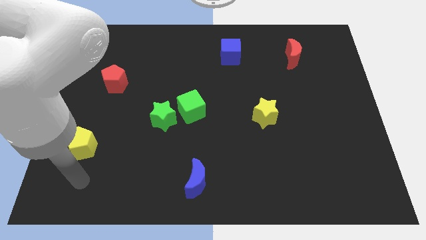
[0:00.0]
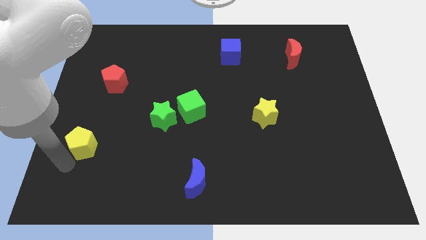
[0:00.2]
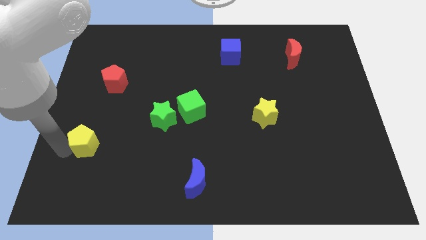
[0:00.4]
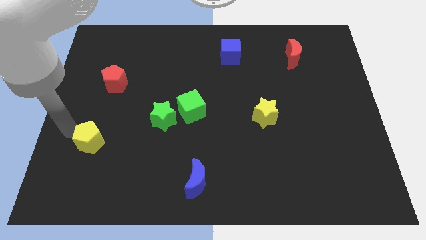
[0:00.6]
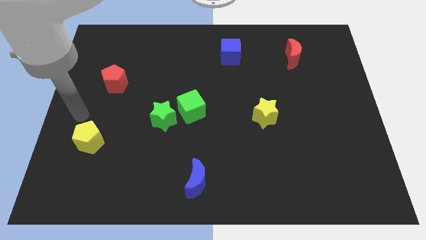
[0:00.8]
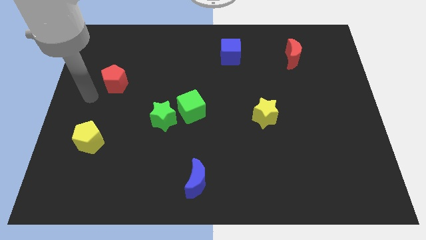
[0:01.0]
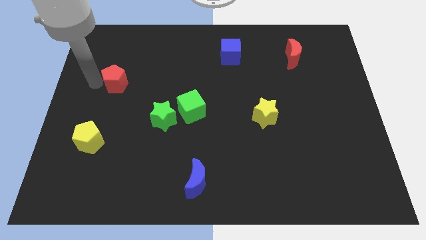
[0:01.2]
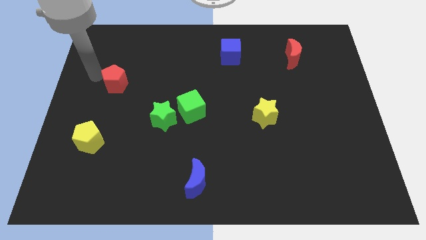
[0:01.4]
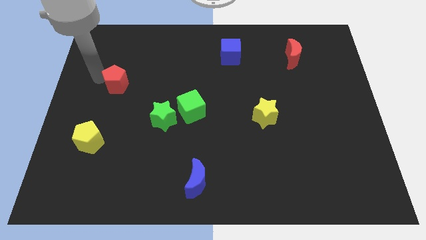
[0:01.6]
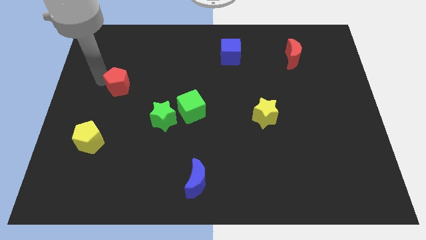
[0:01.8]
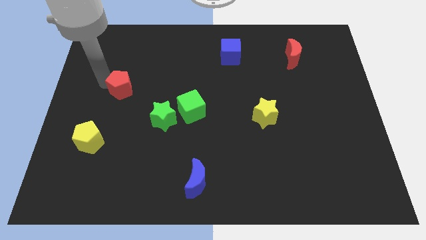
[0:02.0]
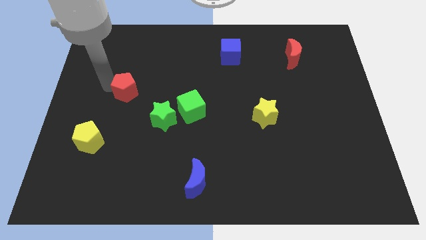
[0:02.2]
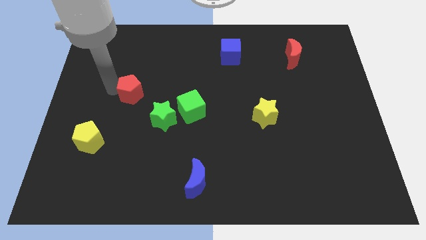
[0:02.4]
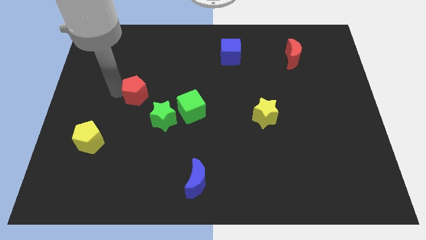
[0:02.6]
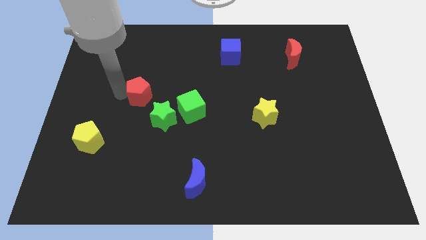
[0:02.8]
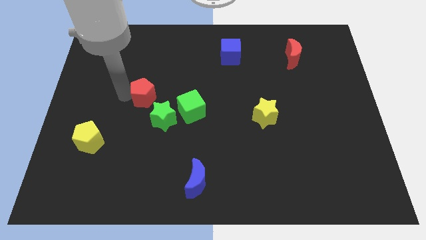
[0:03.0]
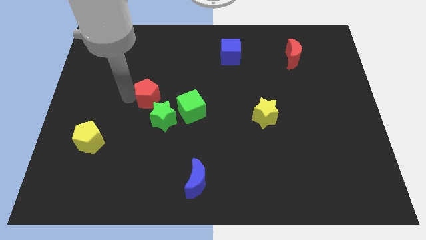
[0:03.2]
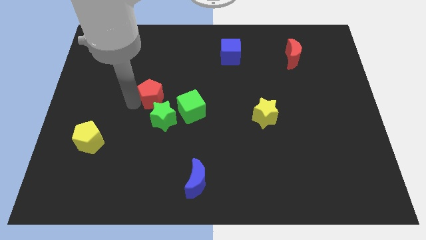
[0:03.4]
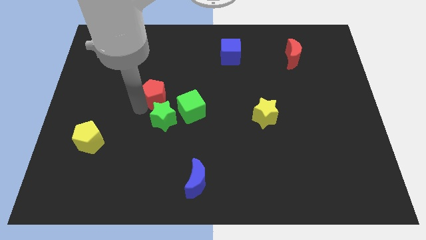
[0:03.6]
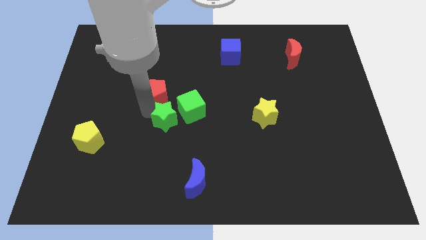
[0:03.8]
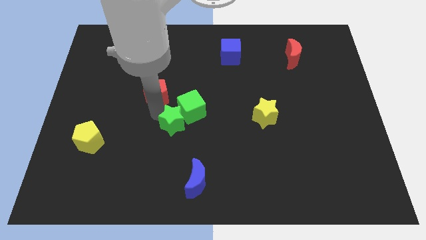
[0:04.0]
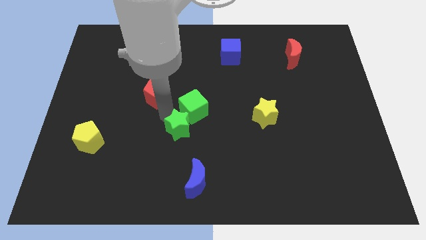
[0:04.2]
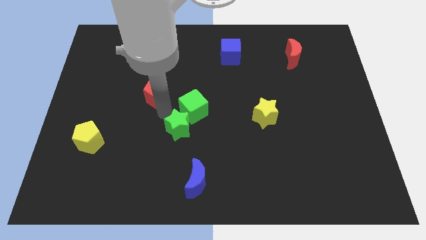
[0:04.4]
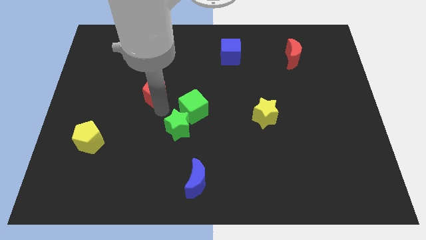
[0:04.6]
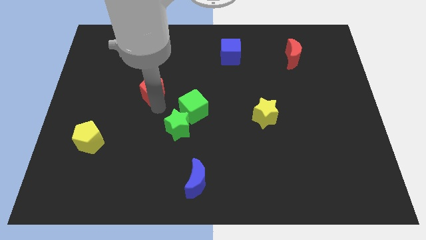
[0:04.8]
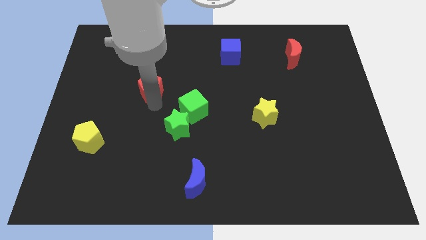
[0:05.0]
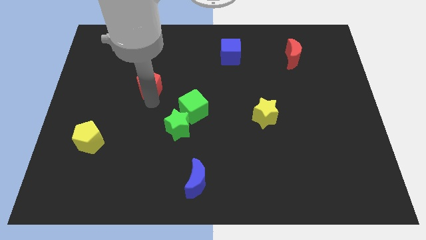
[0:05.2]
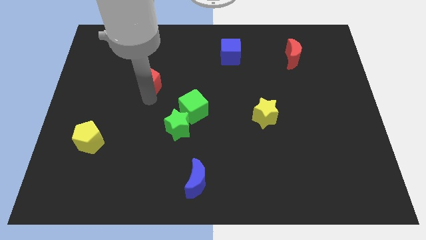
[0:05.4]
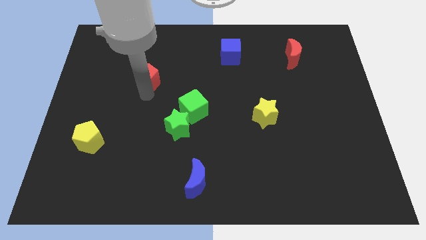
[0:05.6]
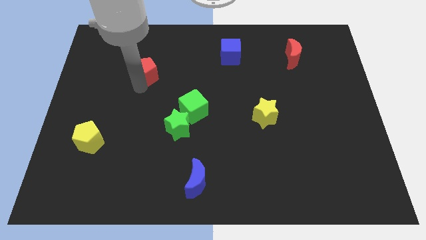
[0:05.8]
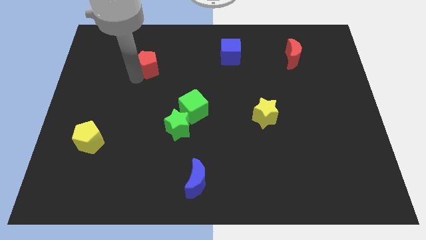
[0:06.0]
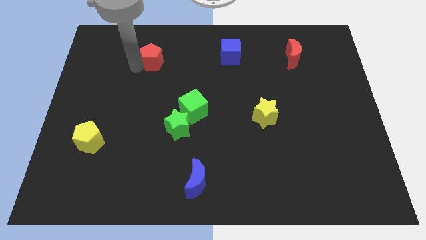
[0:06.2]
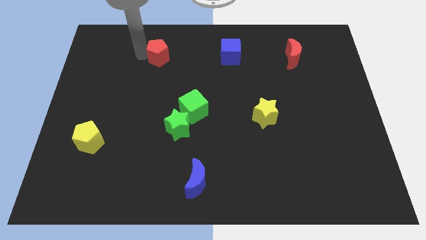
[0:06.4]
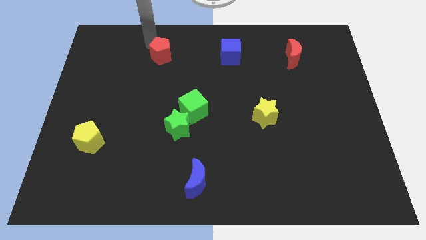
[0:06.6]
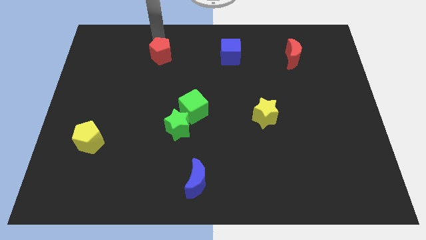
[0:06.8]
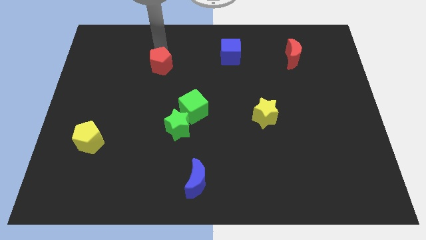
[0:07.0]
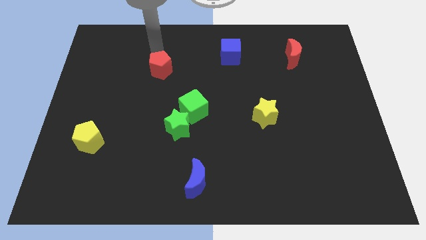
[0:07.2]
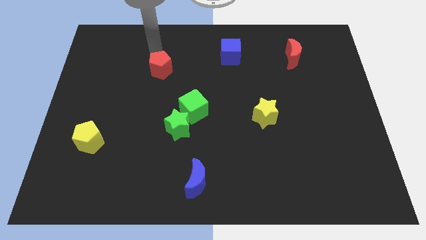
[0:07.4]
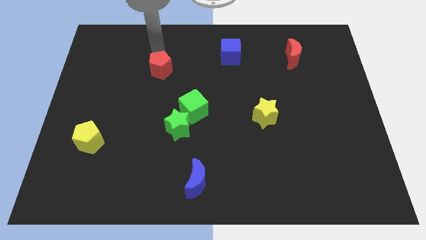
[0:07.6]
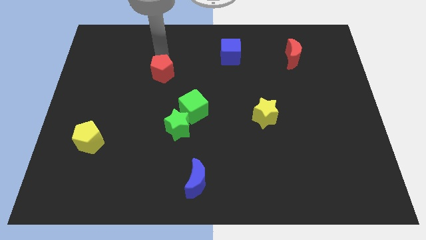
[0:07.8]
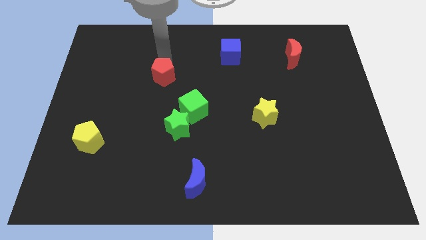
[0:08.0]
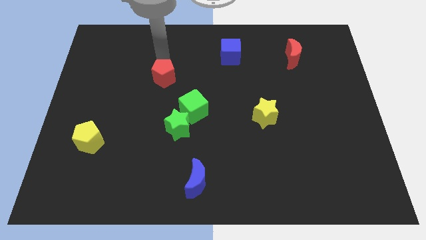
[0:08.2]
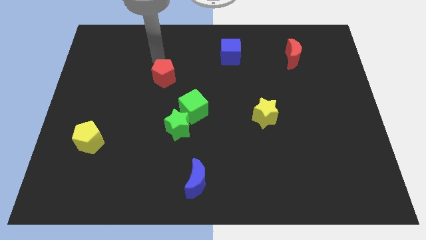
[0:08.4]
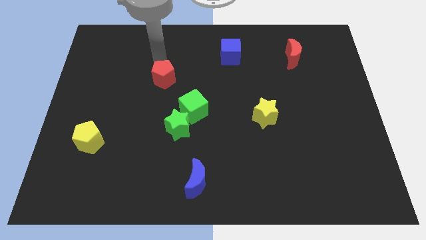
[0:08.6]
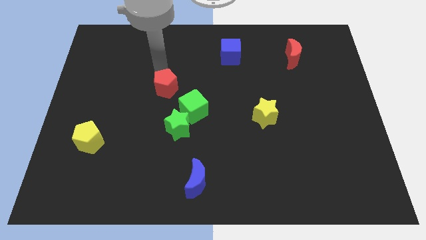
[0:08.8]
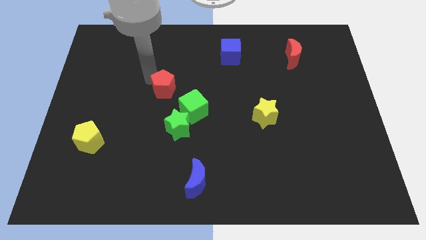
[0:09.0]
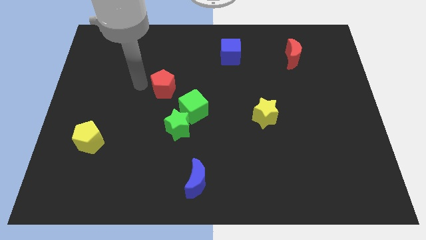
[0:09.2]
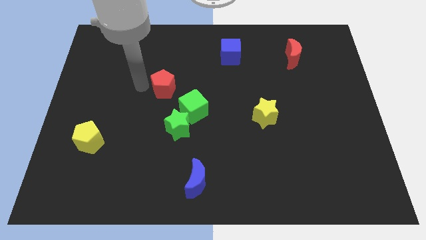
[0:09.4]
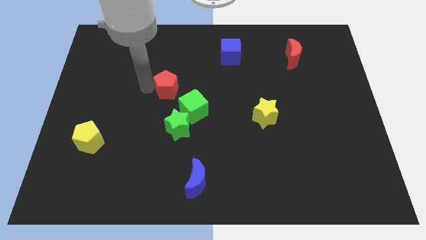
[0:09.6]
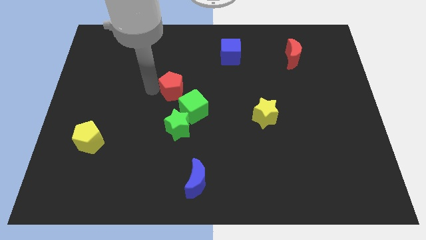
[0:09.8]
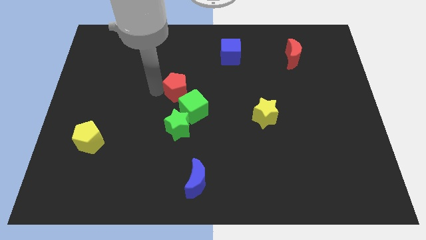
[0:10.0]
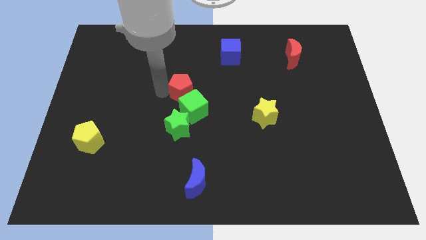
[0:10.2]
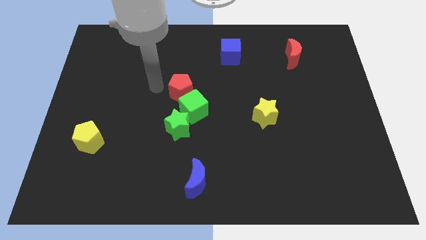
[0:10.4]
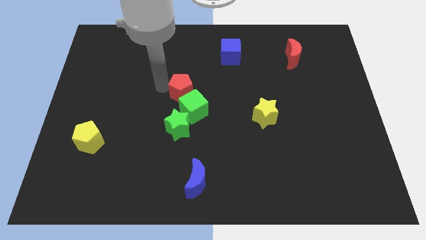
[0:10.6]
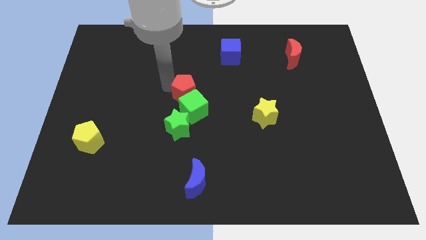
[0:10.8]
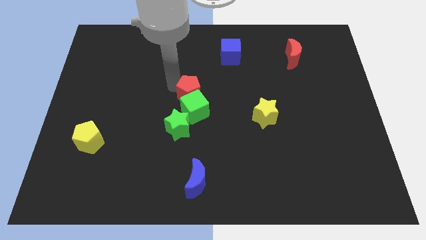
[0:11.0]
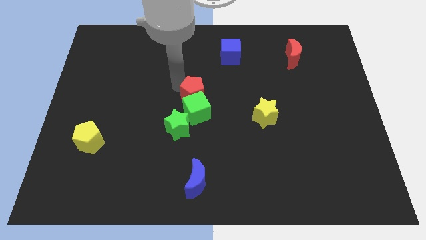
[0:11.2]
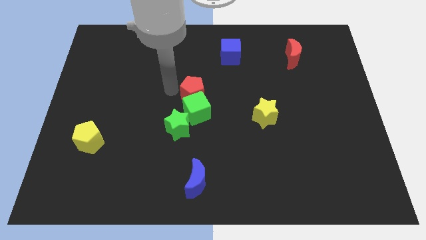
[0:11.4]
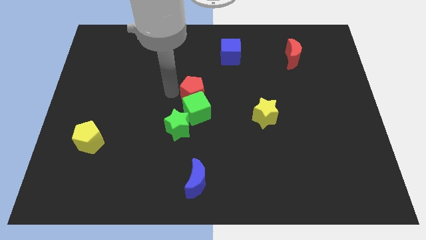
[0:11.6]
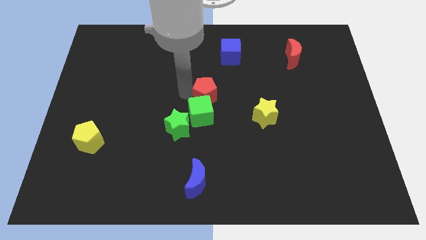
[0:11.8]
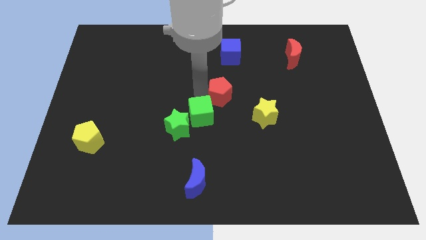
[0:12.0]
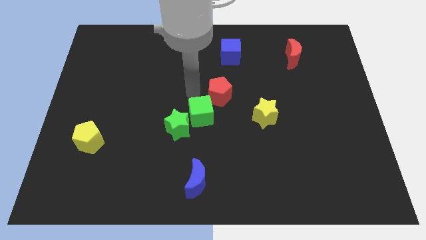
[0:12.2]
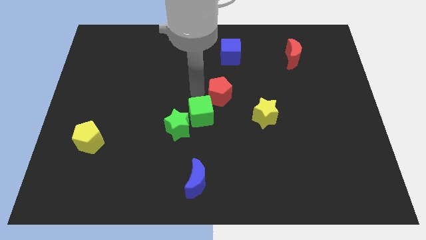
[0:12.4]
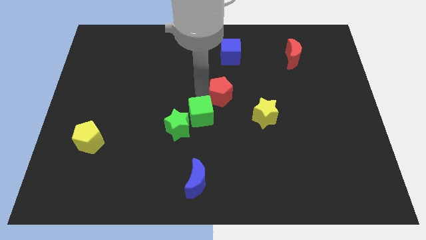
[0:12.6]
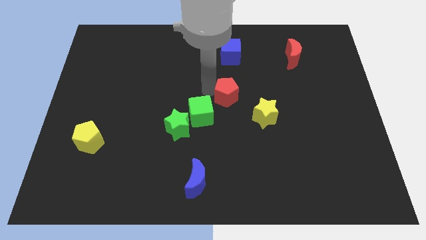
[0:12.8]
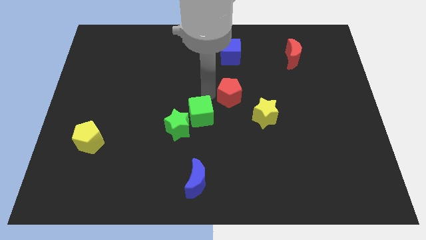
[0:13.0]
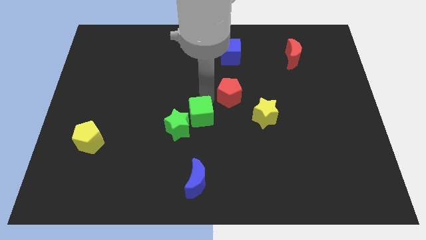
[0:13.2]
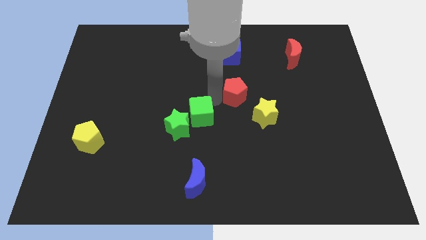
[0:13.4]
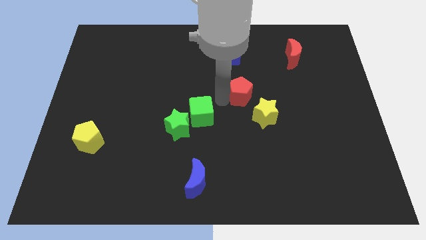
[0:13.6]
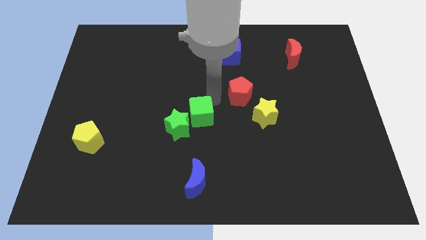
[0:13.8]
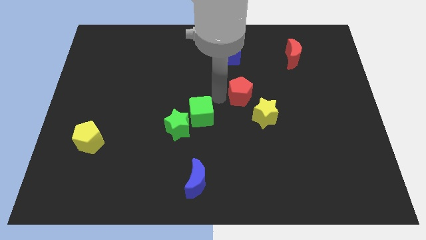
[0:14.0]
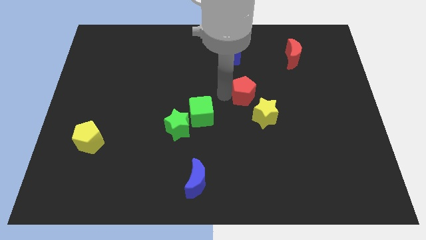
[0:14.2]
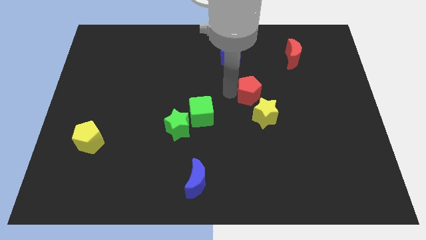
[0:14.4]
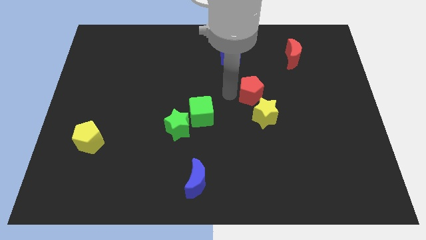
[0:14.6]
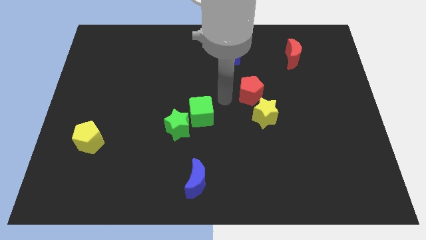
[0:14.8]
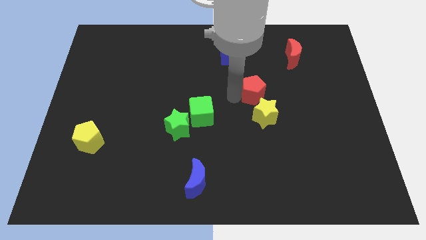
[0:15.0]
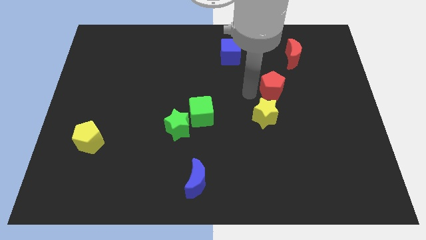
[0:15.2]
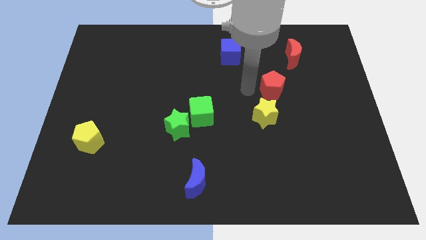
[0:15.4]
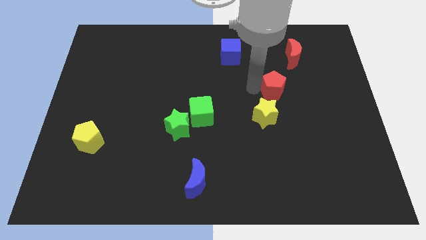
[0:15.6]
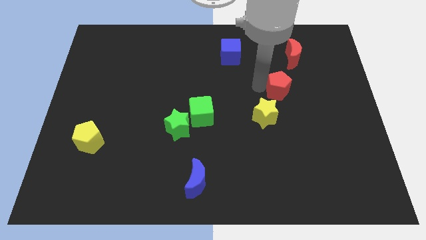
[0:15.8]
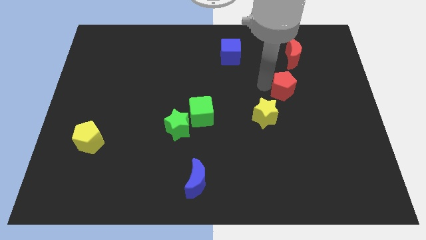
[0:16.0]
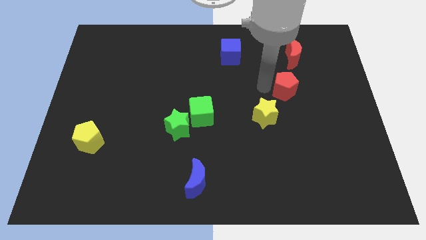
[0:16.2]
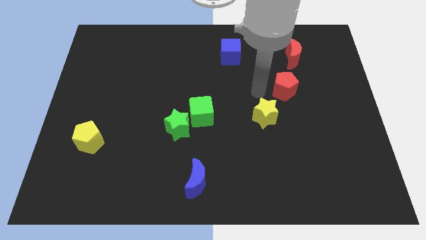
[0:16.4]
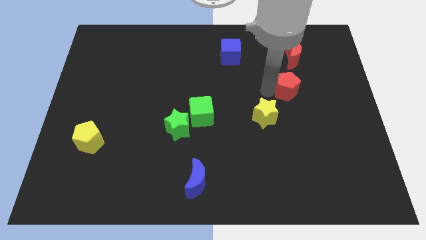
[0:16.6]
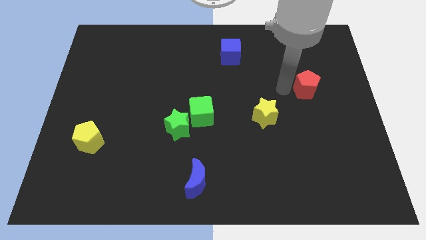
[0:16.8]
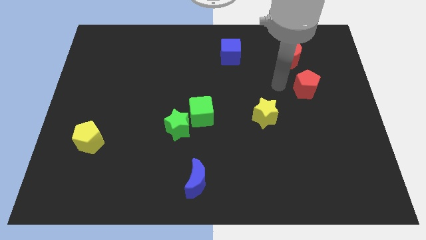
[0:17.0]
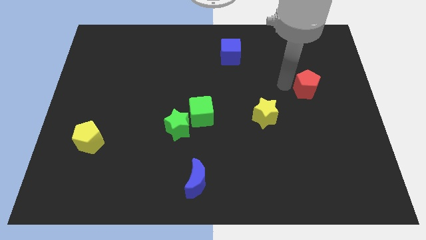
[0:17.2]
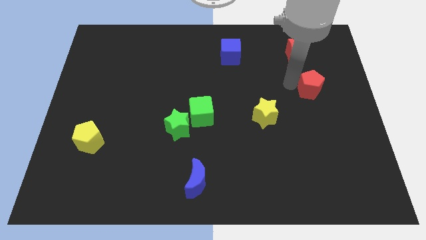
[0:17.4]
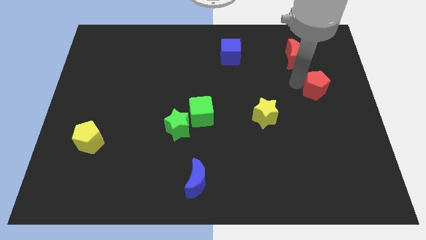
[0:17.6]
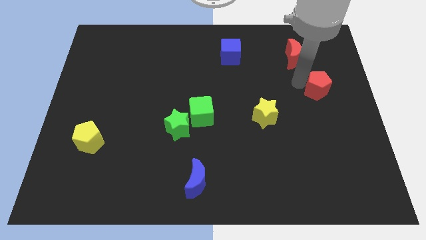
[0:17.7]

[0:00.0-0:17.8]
slide the red pentagon to the center right
